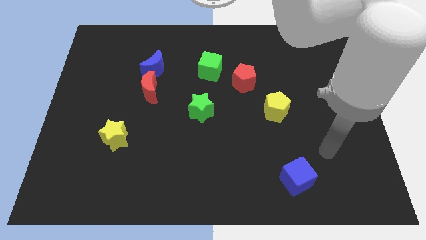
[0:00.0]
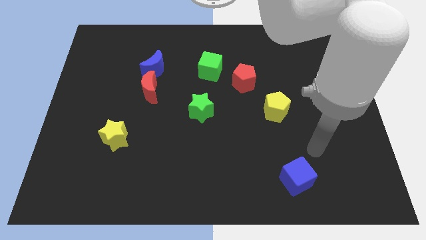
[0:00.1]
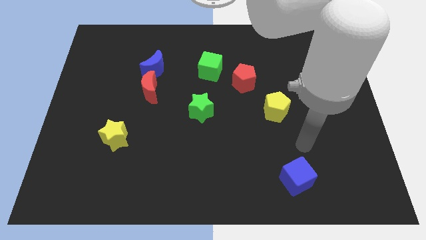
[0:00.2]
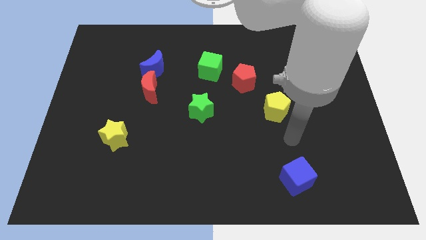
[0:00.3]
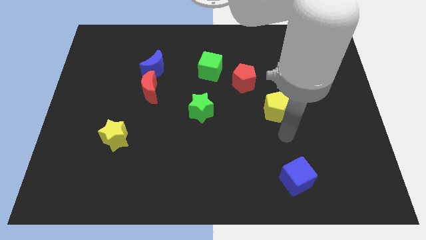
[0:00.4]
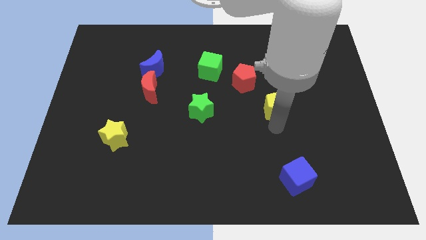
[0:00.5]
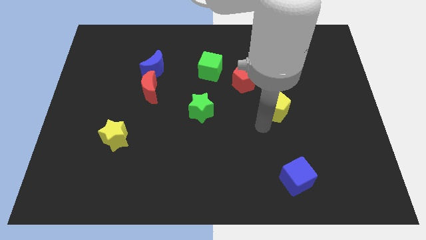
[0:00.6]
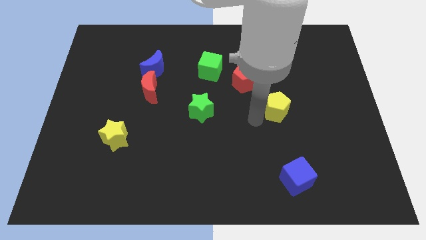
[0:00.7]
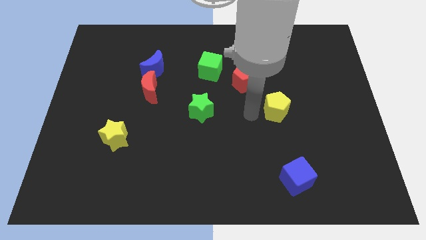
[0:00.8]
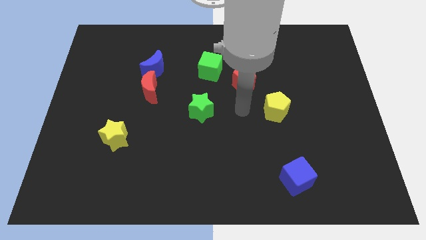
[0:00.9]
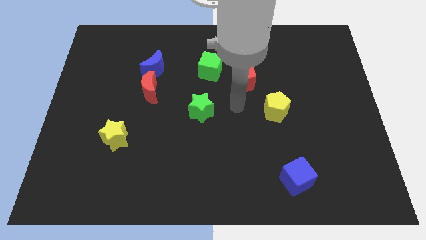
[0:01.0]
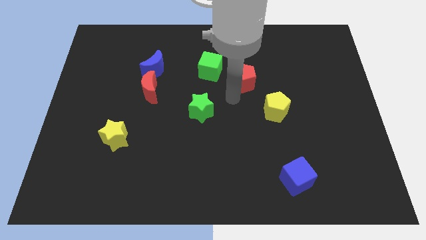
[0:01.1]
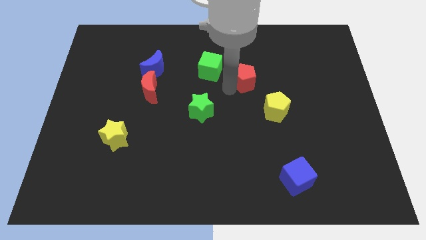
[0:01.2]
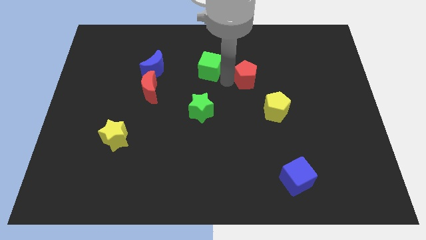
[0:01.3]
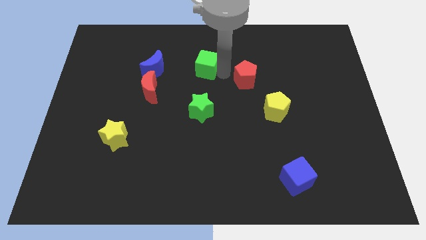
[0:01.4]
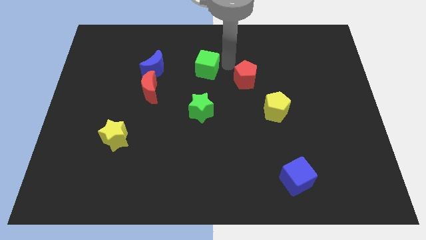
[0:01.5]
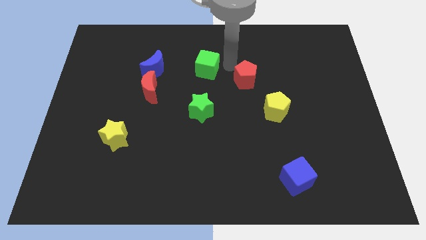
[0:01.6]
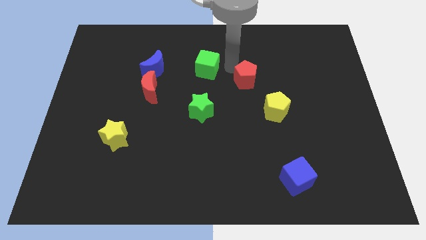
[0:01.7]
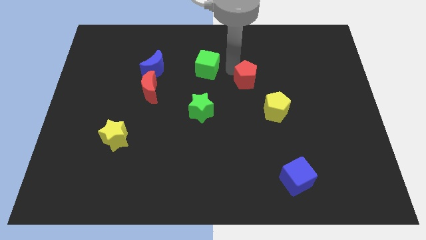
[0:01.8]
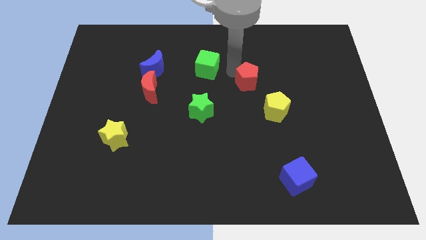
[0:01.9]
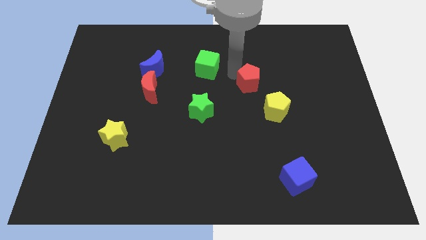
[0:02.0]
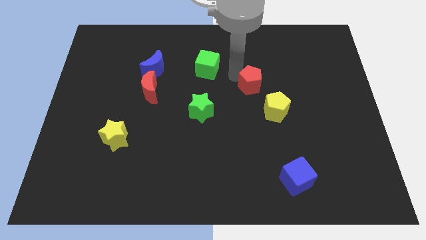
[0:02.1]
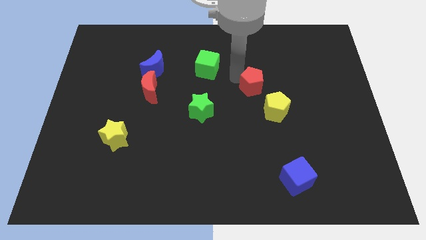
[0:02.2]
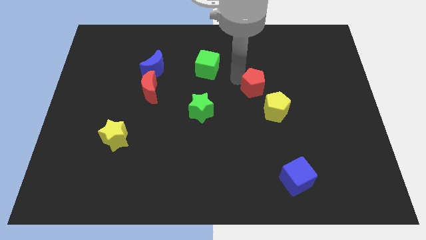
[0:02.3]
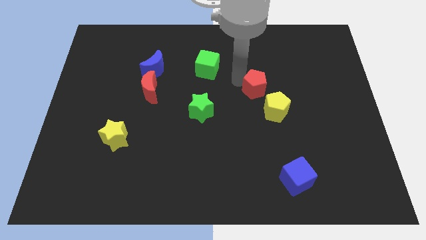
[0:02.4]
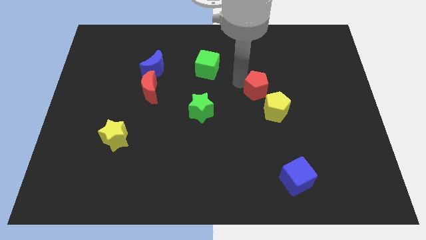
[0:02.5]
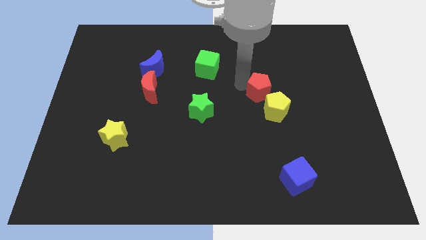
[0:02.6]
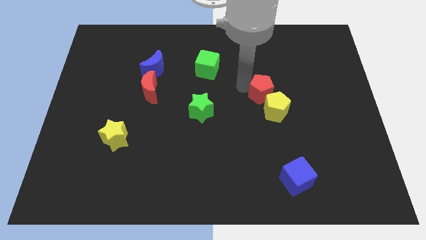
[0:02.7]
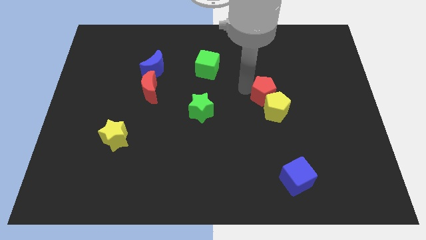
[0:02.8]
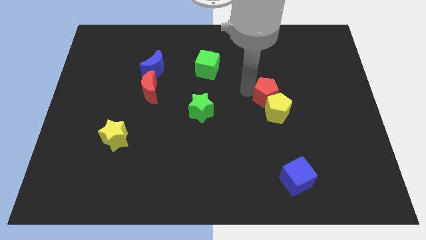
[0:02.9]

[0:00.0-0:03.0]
slide the red pentagon diagonally down and to the right a little

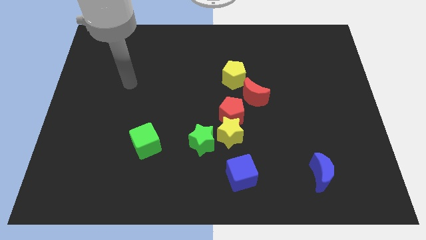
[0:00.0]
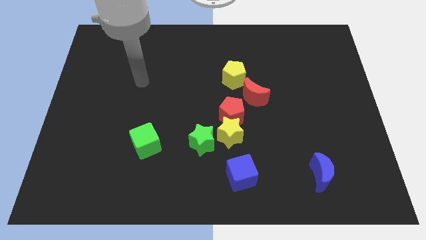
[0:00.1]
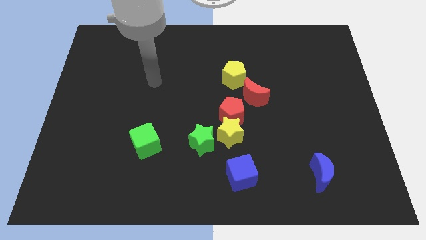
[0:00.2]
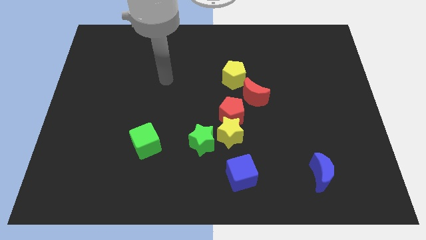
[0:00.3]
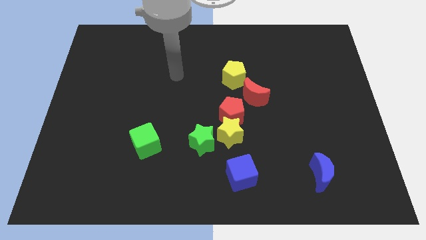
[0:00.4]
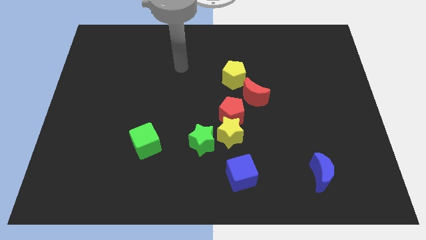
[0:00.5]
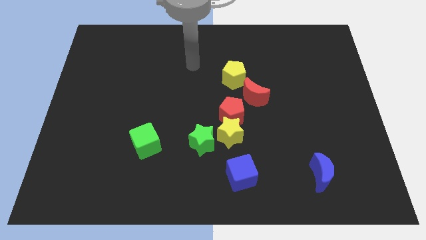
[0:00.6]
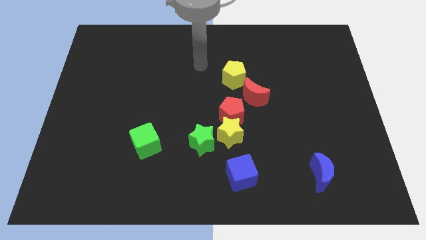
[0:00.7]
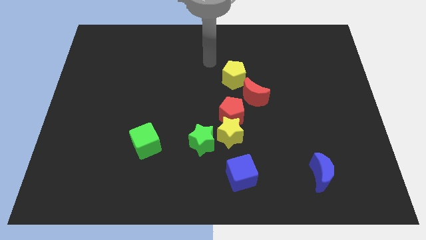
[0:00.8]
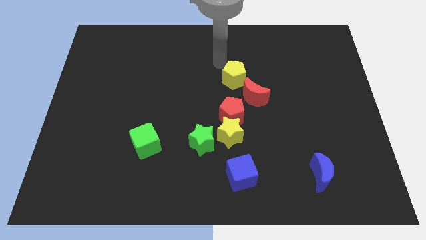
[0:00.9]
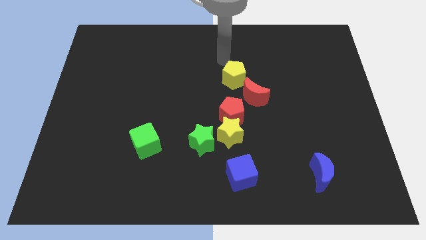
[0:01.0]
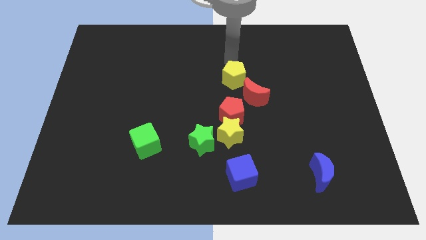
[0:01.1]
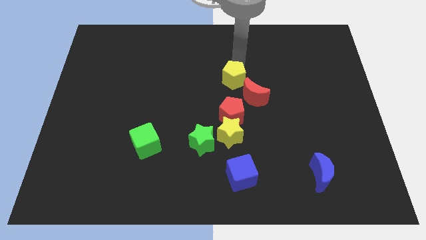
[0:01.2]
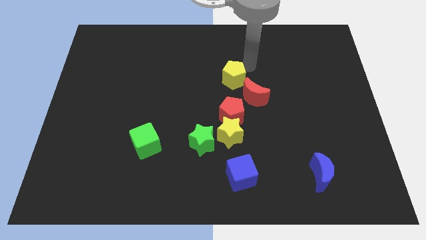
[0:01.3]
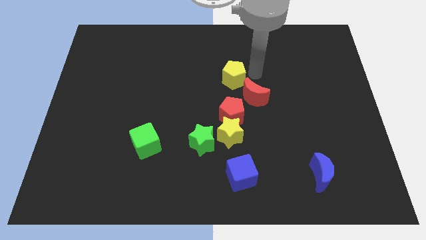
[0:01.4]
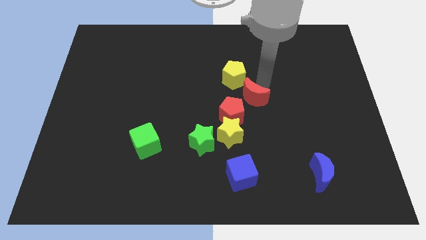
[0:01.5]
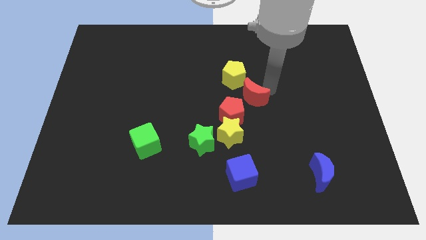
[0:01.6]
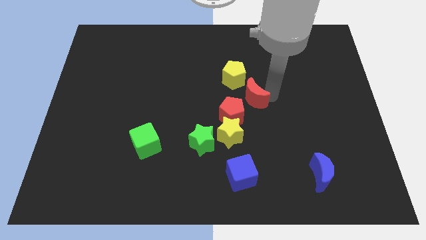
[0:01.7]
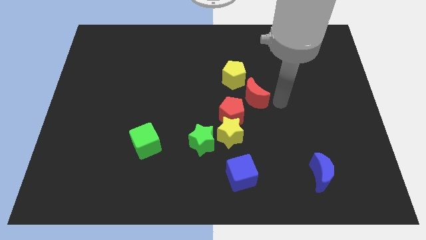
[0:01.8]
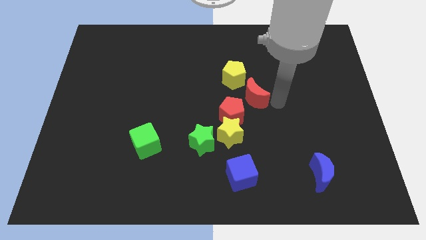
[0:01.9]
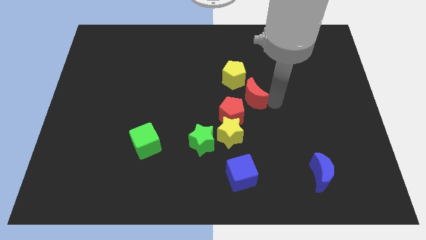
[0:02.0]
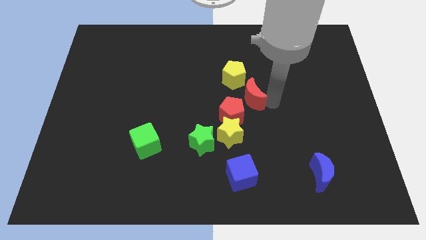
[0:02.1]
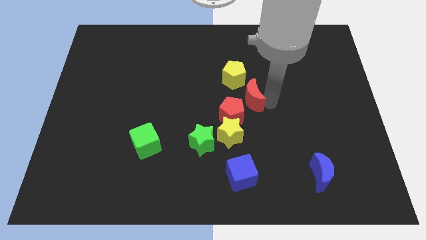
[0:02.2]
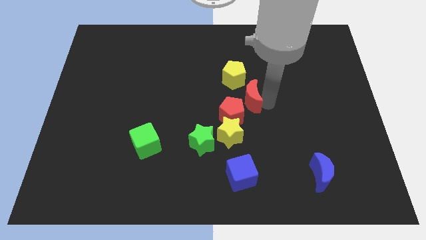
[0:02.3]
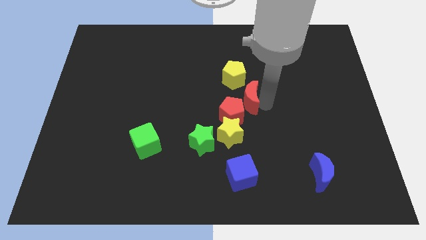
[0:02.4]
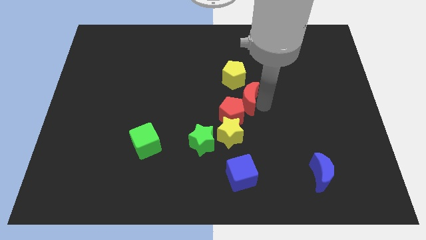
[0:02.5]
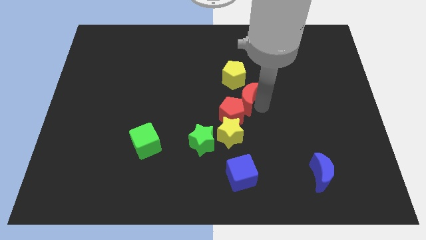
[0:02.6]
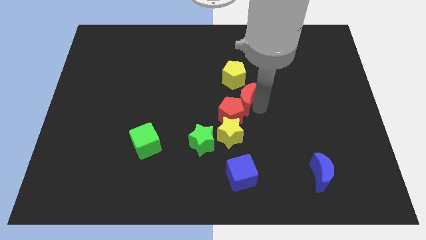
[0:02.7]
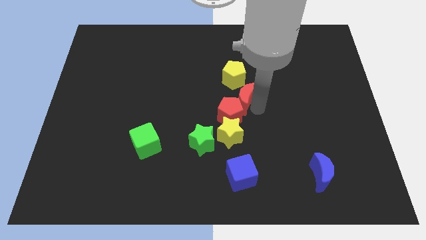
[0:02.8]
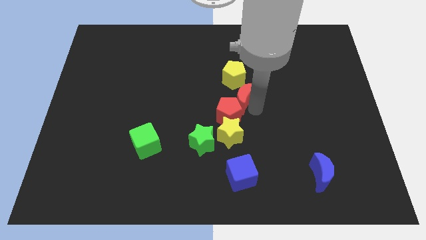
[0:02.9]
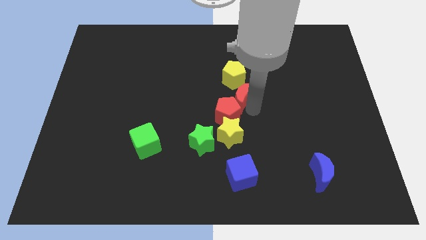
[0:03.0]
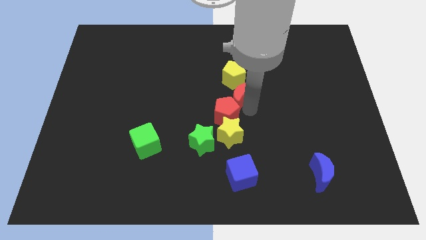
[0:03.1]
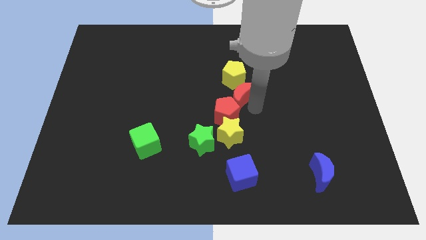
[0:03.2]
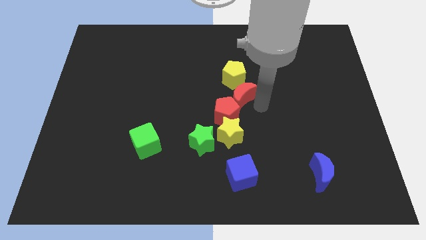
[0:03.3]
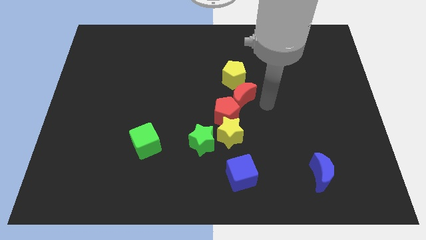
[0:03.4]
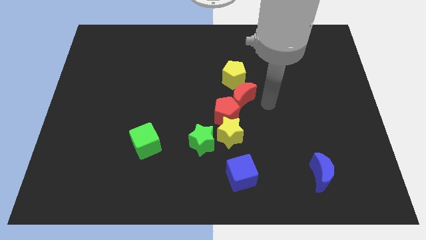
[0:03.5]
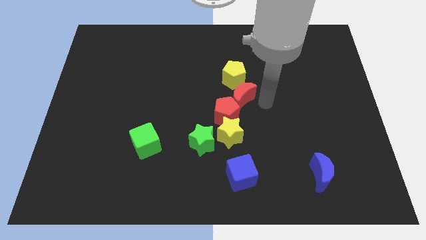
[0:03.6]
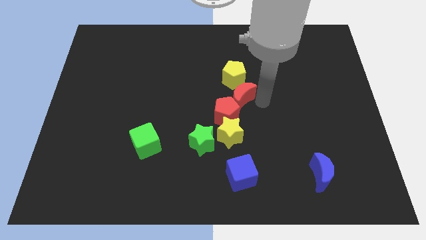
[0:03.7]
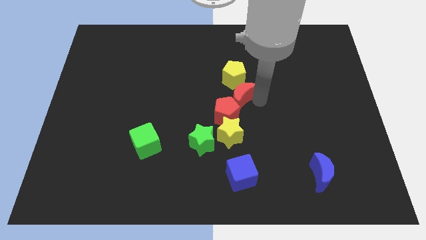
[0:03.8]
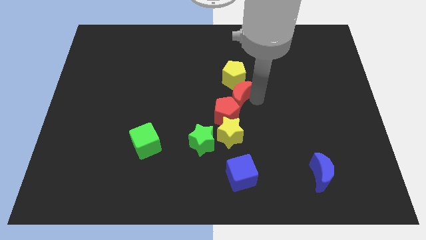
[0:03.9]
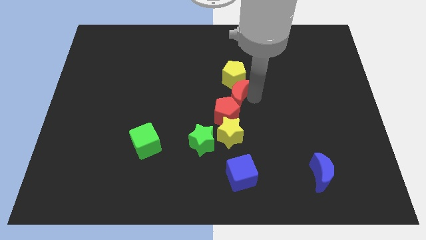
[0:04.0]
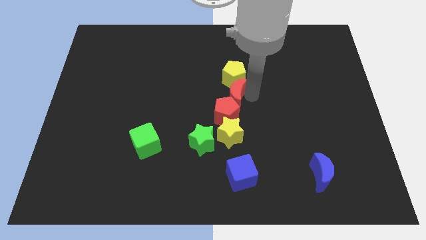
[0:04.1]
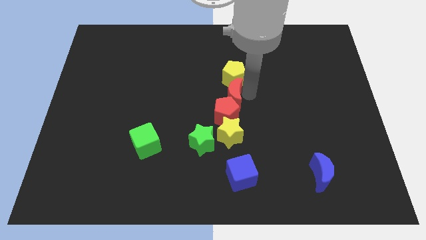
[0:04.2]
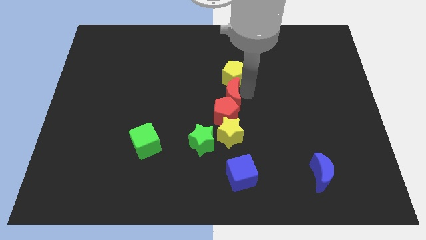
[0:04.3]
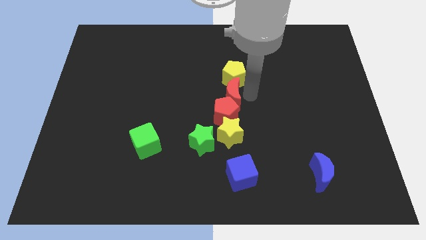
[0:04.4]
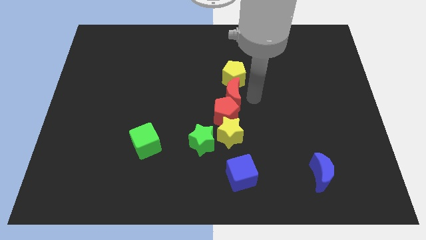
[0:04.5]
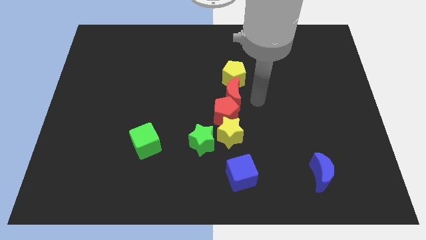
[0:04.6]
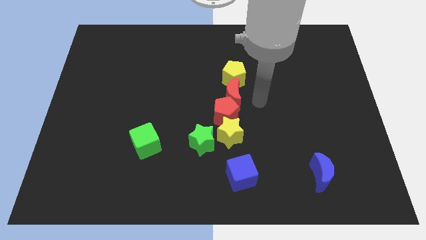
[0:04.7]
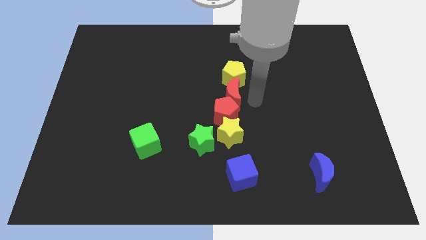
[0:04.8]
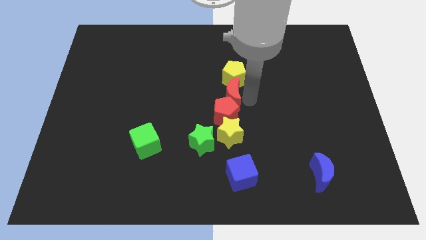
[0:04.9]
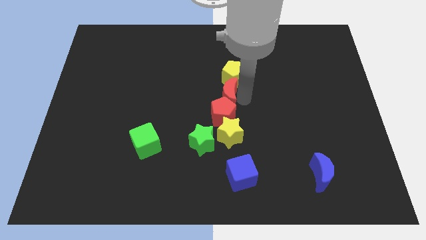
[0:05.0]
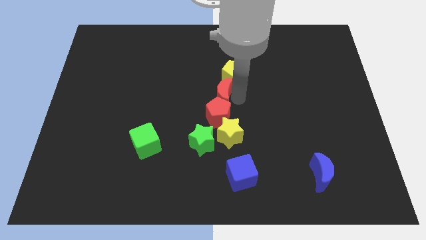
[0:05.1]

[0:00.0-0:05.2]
push the red moon to the left a little
